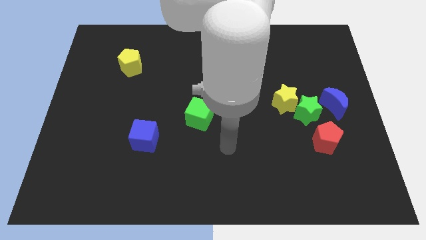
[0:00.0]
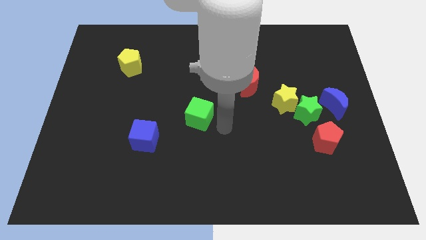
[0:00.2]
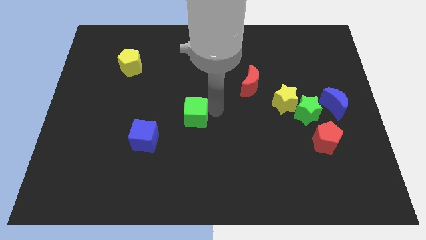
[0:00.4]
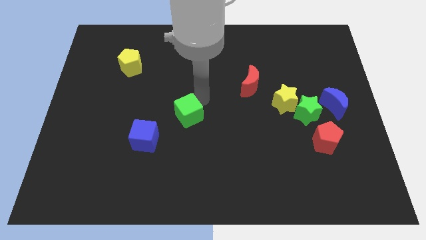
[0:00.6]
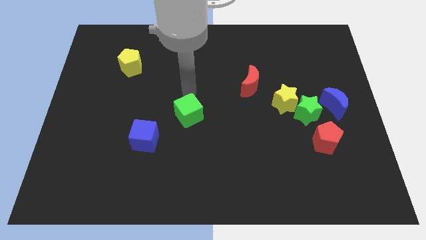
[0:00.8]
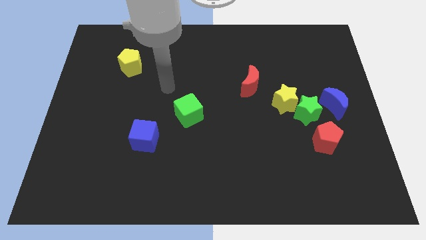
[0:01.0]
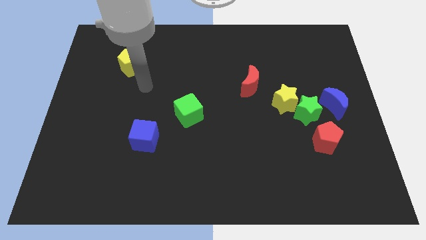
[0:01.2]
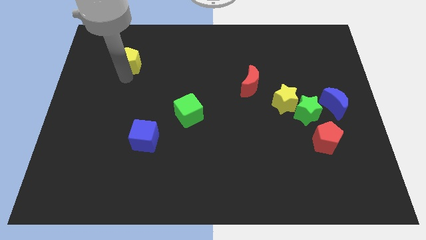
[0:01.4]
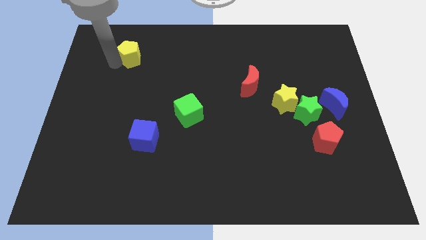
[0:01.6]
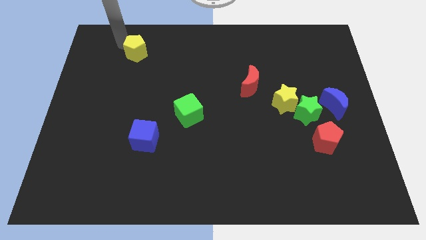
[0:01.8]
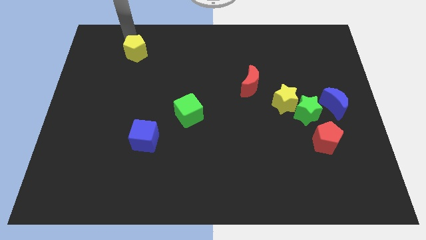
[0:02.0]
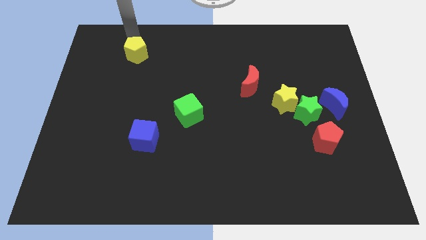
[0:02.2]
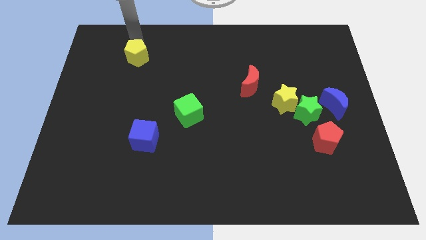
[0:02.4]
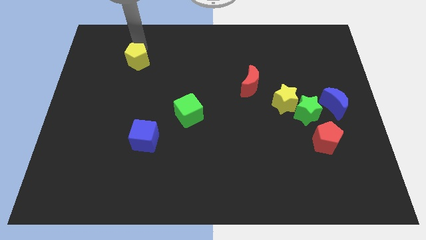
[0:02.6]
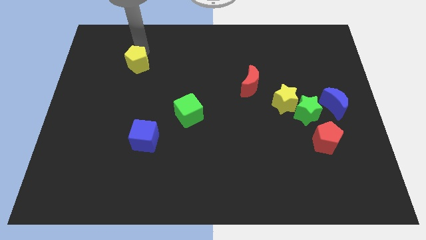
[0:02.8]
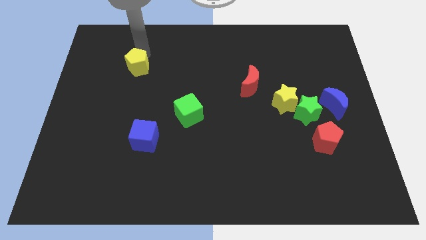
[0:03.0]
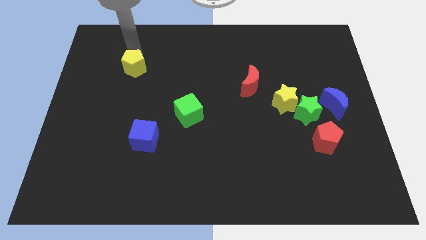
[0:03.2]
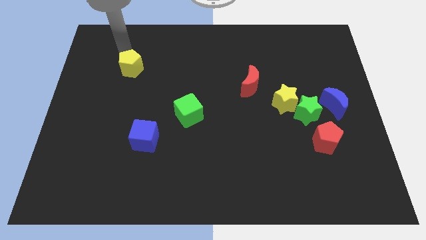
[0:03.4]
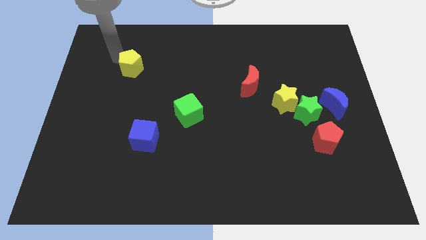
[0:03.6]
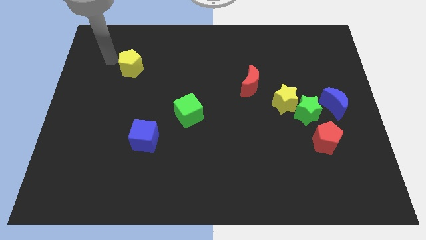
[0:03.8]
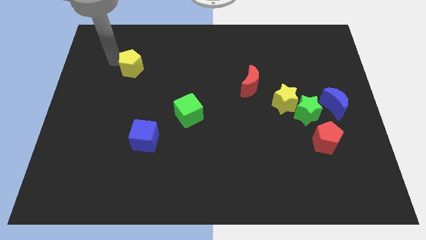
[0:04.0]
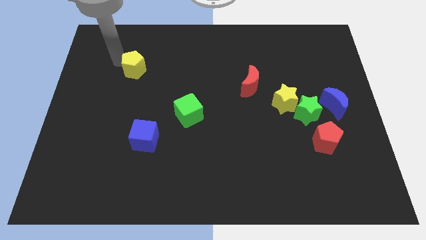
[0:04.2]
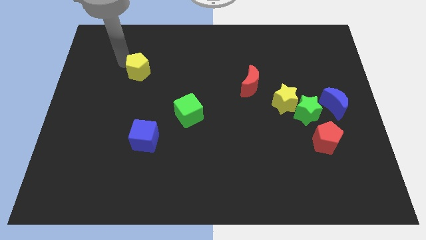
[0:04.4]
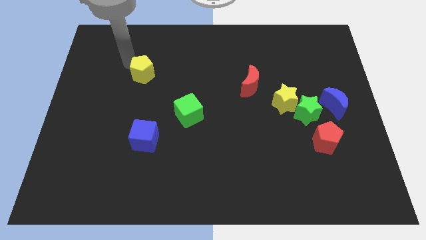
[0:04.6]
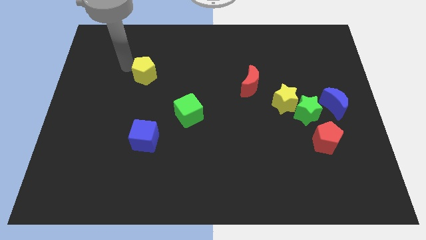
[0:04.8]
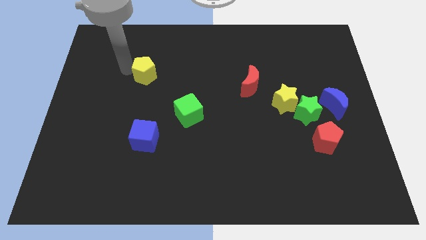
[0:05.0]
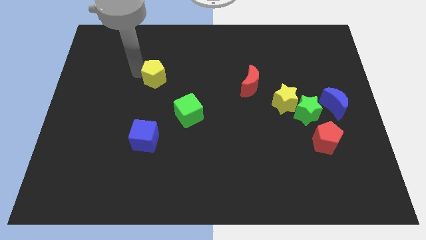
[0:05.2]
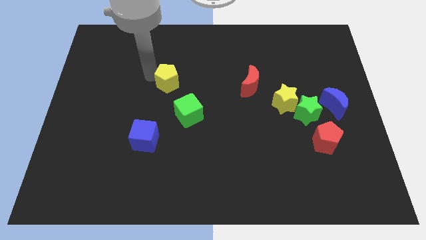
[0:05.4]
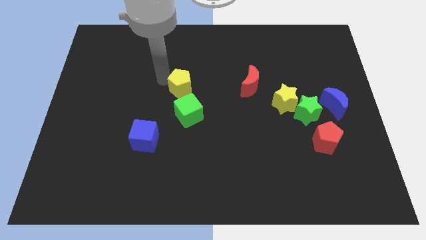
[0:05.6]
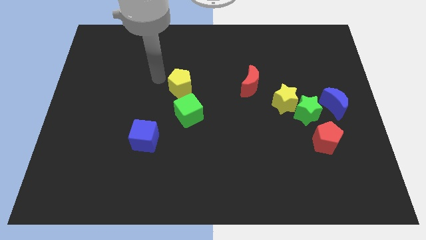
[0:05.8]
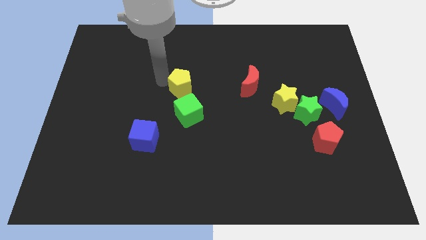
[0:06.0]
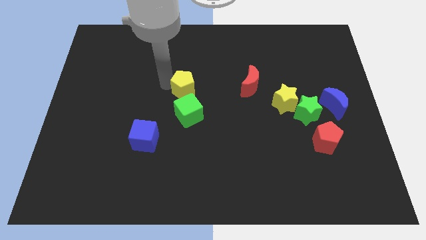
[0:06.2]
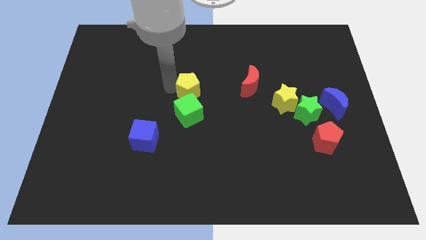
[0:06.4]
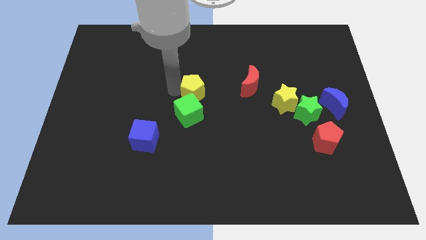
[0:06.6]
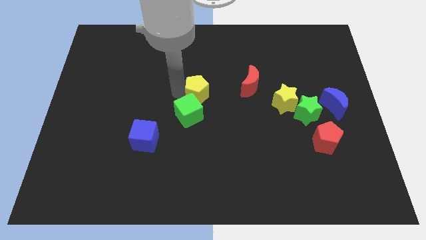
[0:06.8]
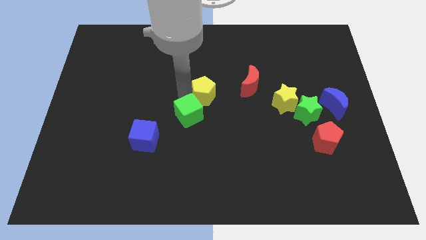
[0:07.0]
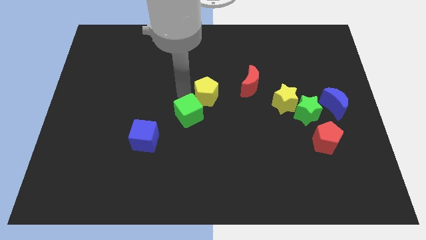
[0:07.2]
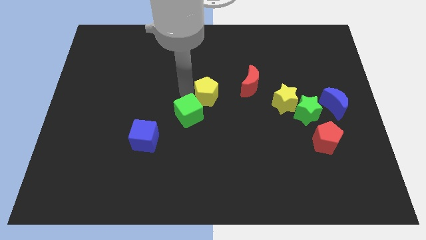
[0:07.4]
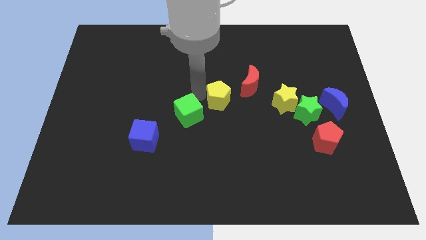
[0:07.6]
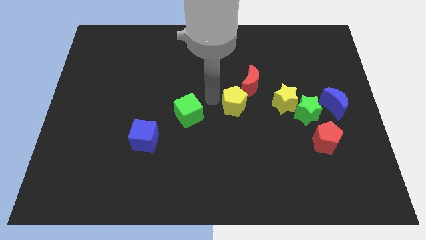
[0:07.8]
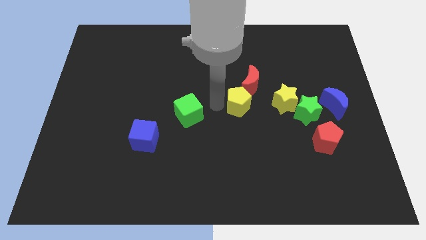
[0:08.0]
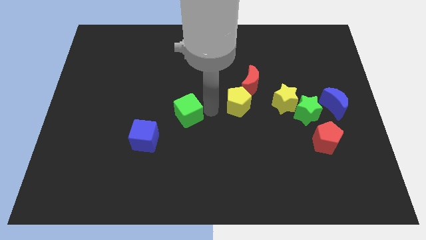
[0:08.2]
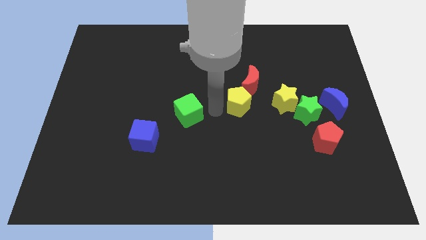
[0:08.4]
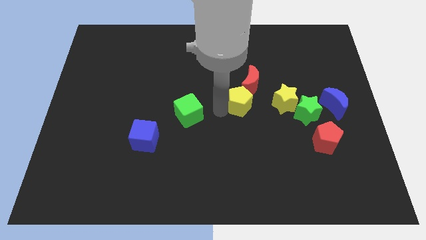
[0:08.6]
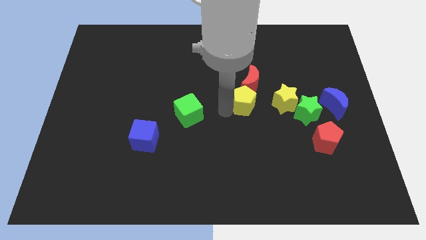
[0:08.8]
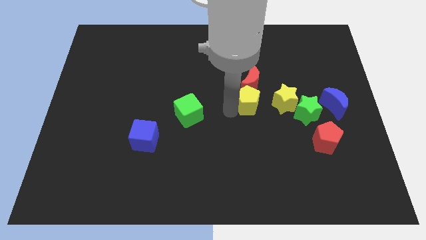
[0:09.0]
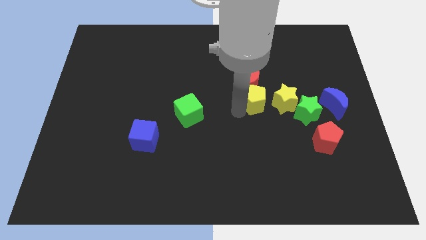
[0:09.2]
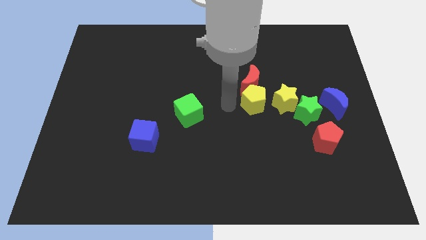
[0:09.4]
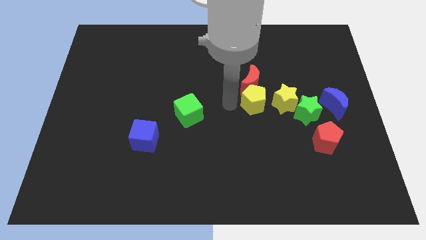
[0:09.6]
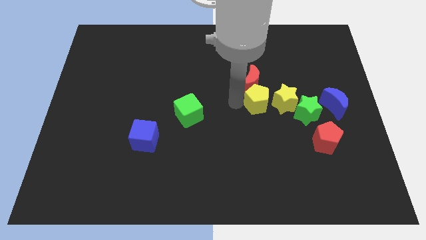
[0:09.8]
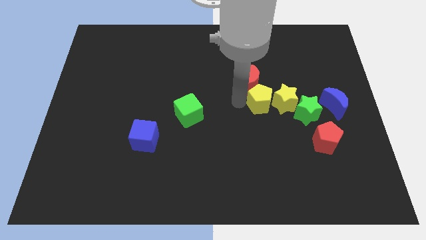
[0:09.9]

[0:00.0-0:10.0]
move the yellow pentagon next to the yellow star
